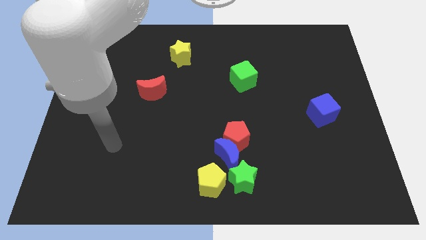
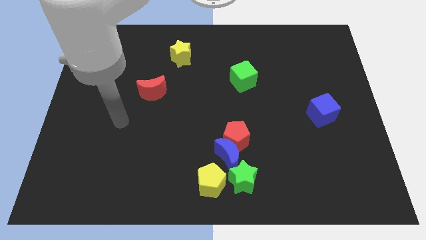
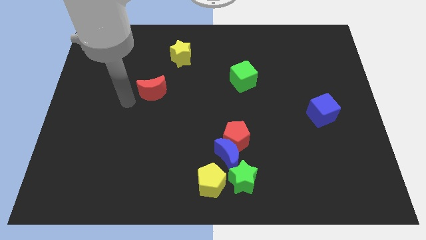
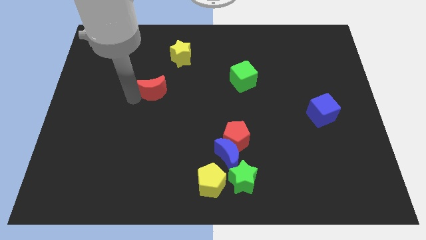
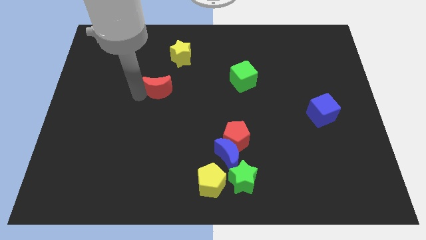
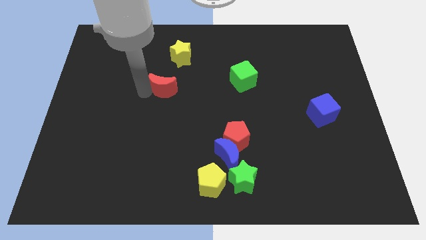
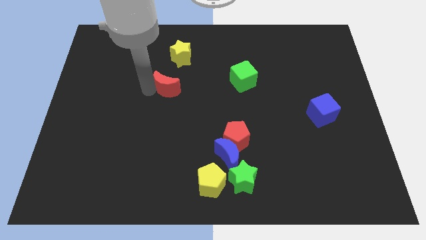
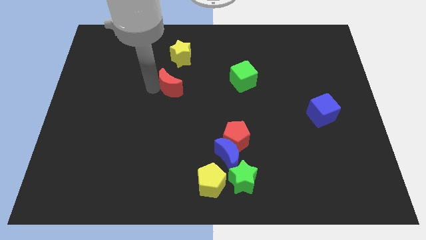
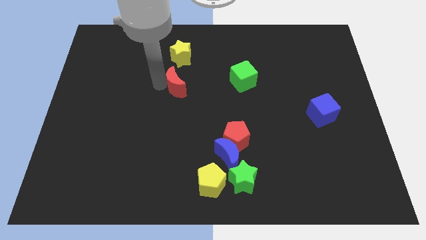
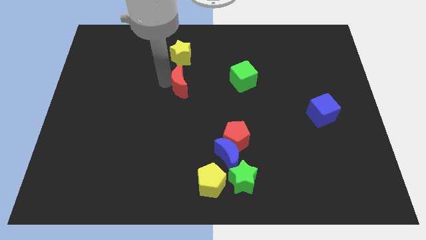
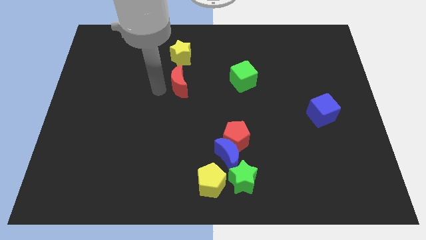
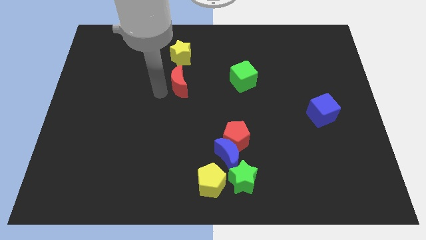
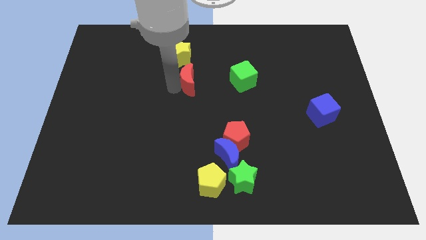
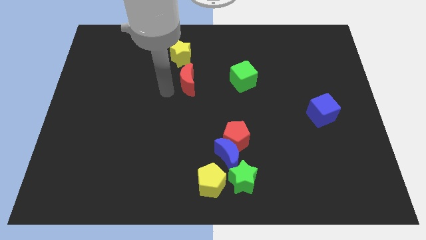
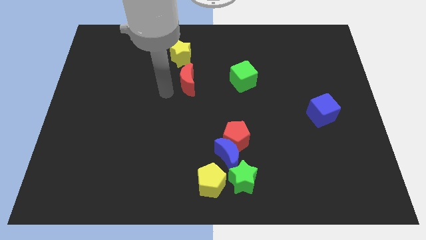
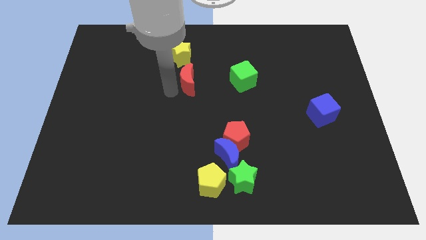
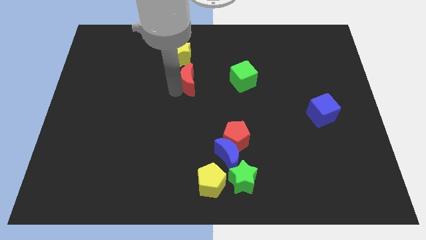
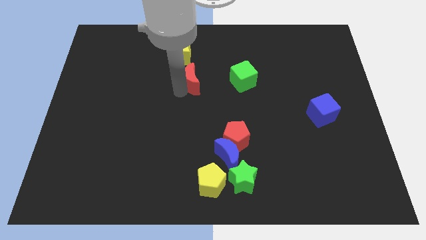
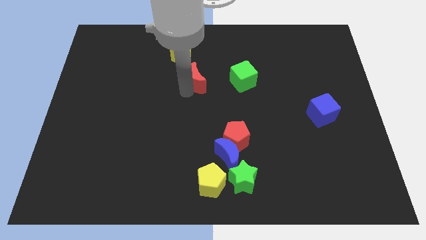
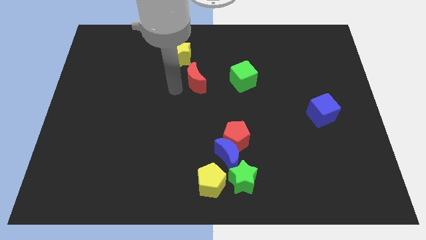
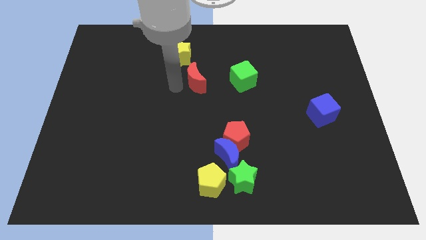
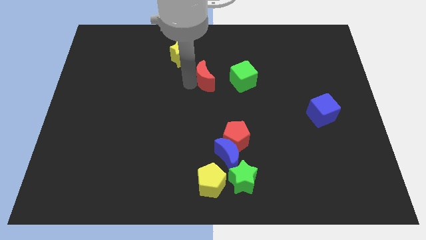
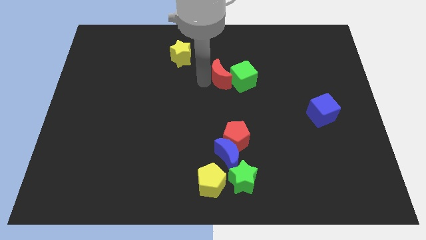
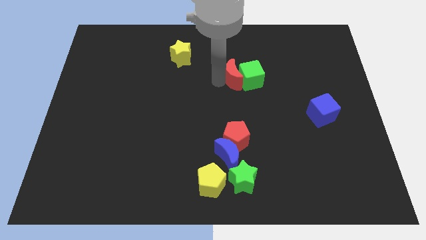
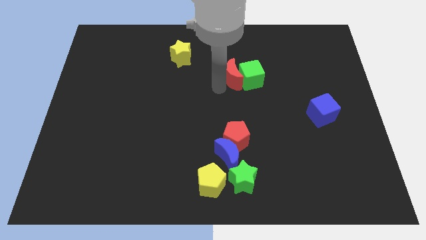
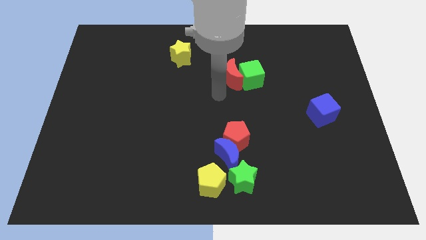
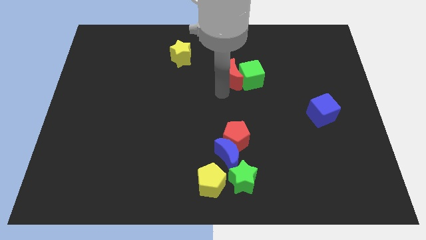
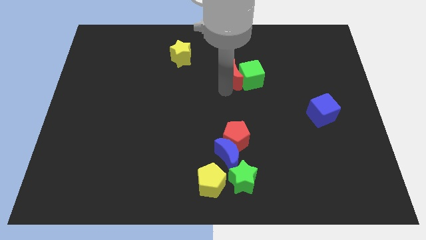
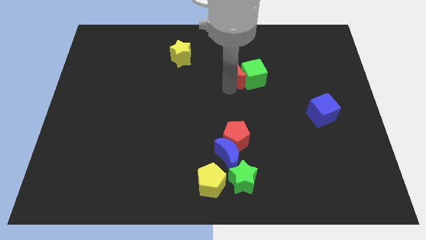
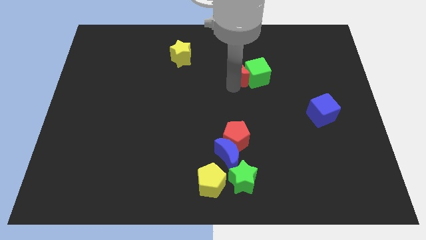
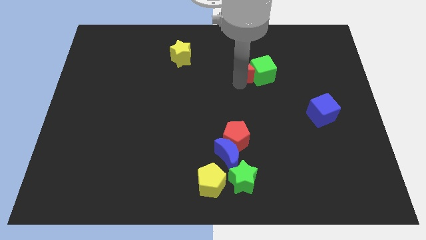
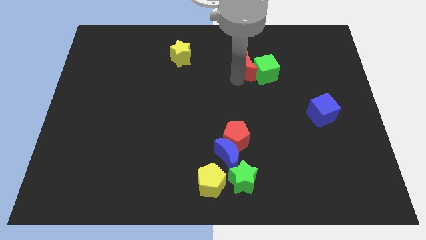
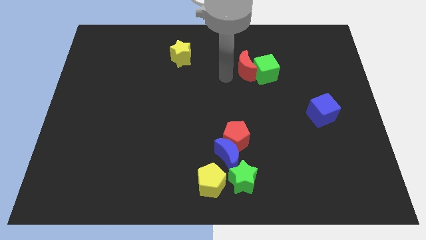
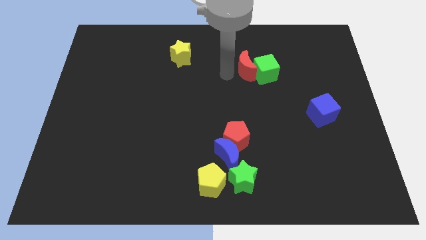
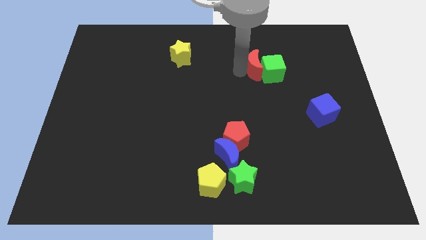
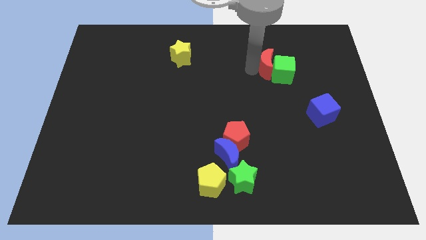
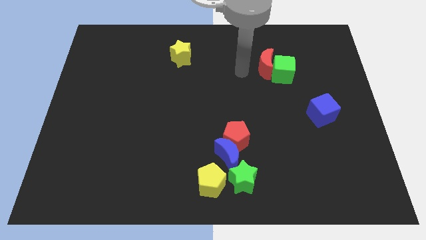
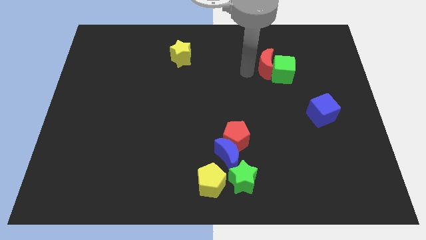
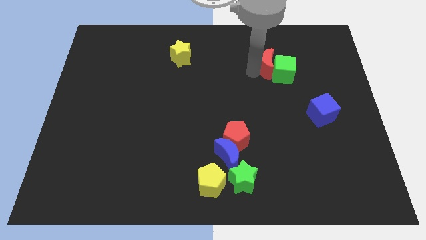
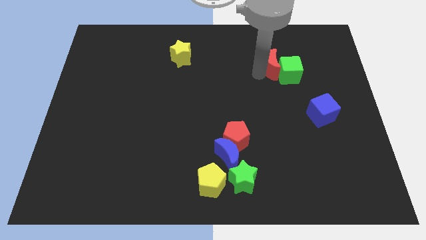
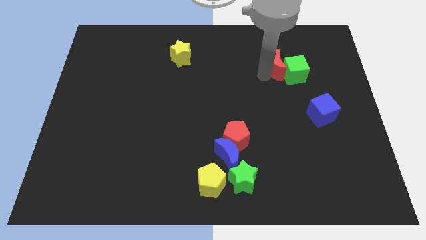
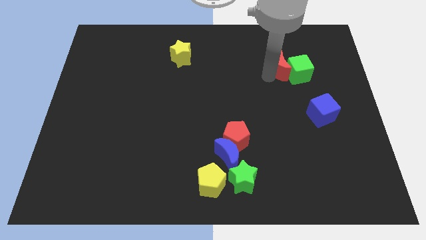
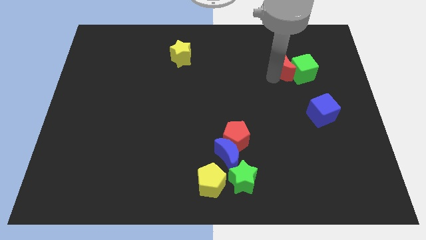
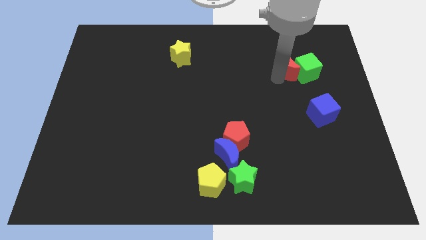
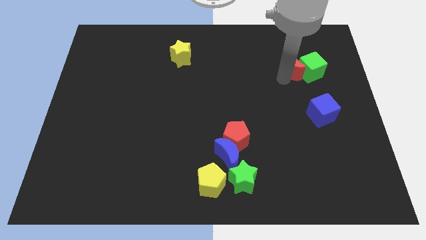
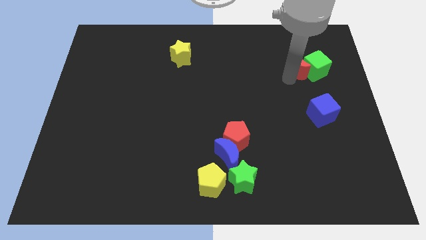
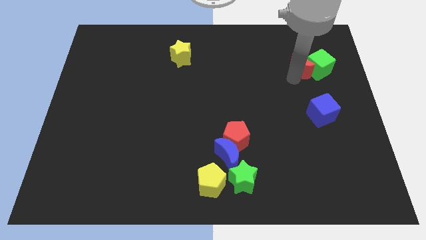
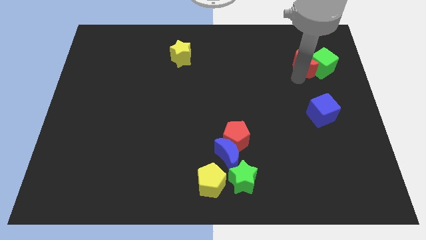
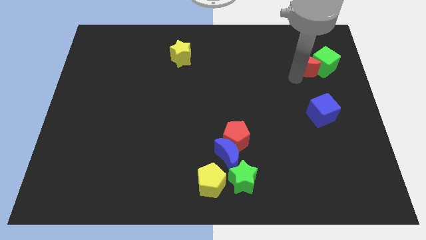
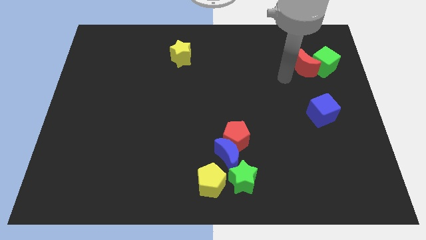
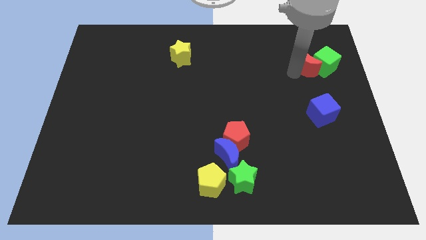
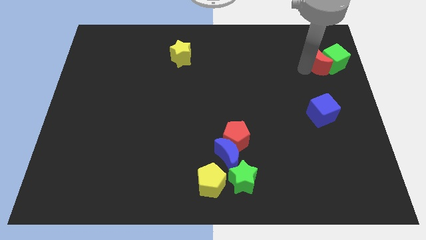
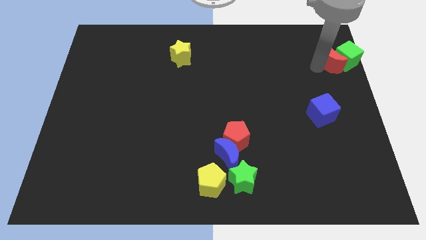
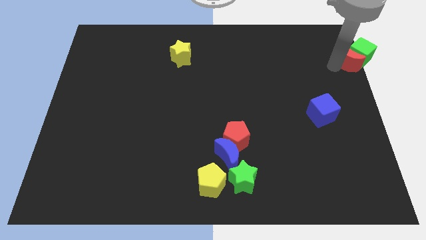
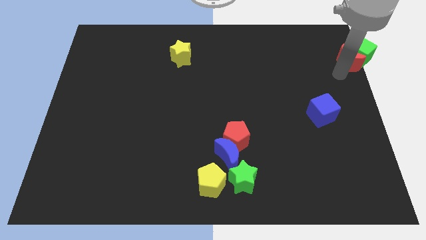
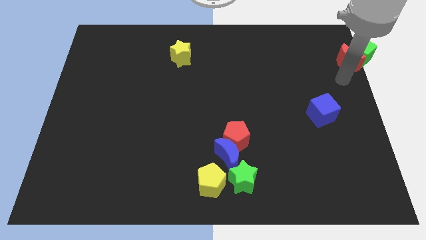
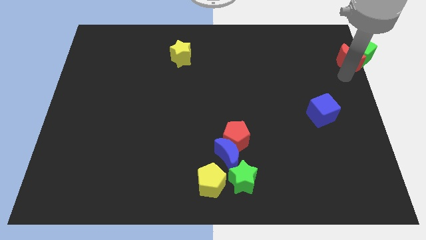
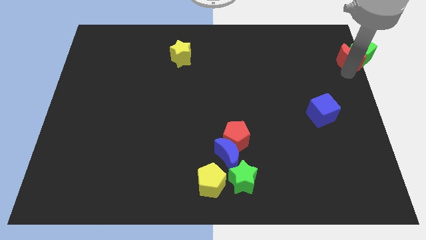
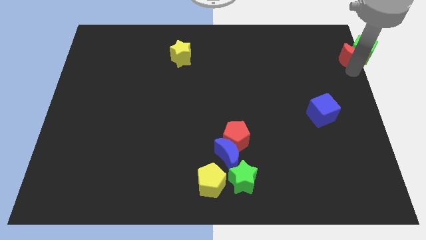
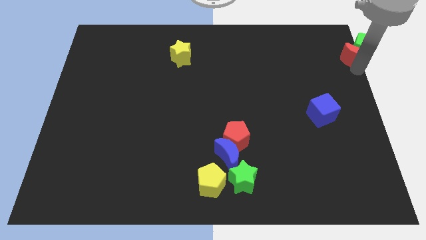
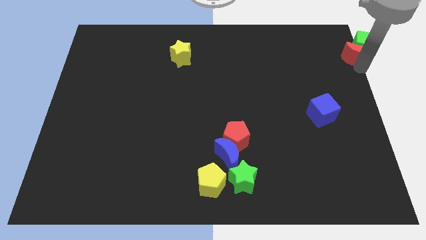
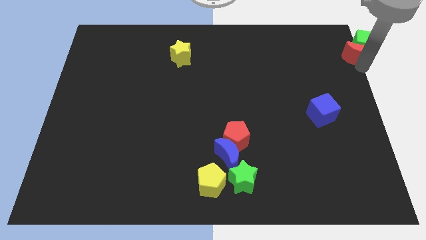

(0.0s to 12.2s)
slide the red moon to the upper right corner

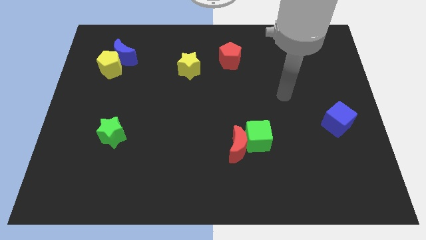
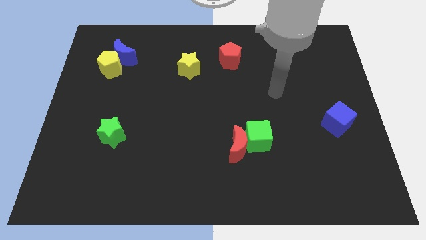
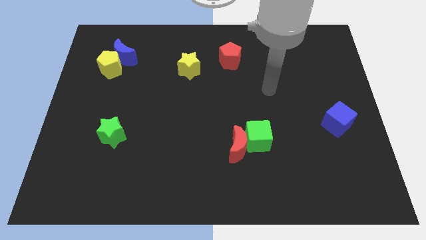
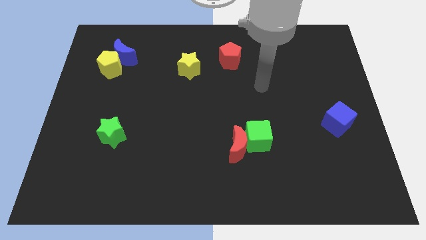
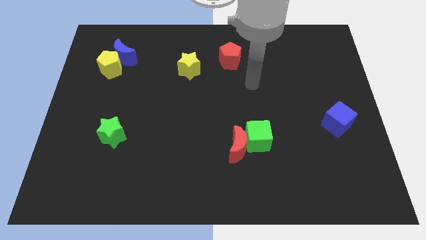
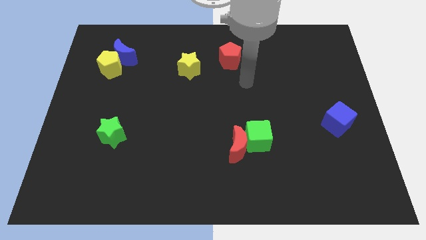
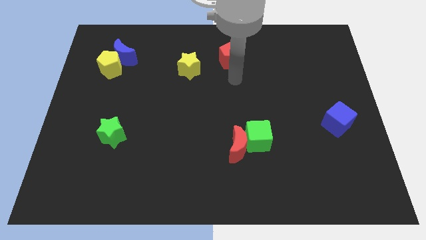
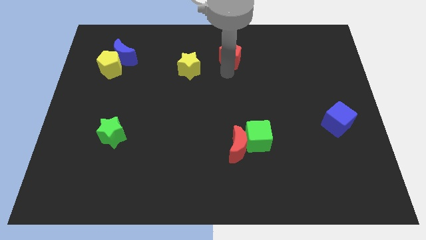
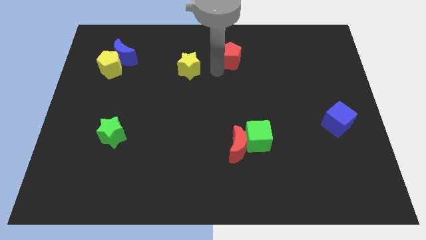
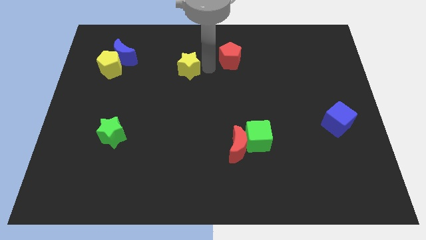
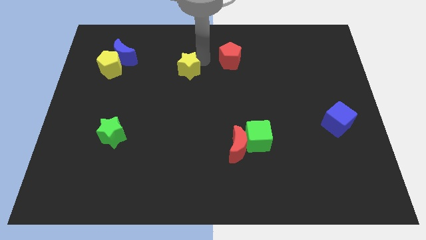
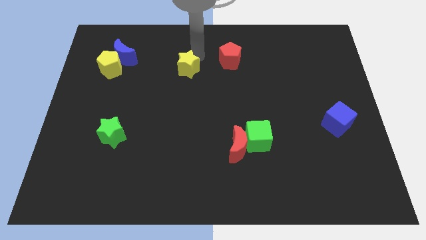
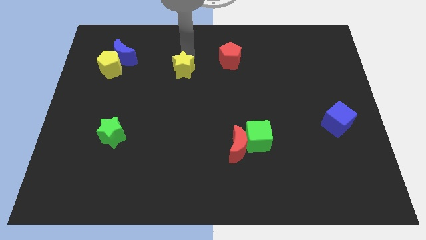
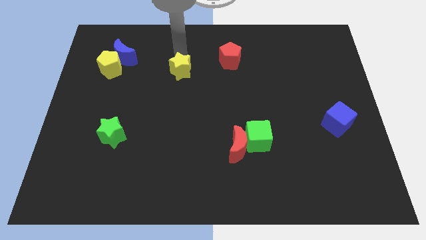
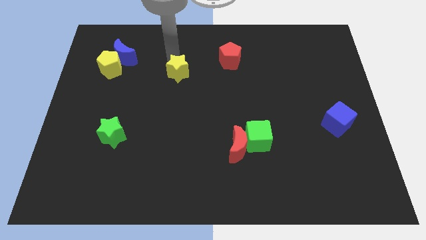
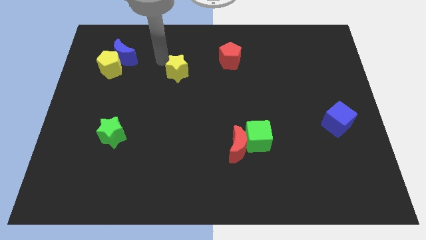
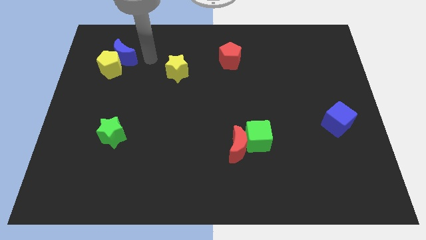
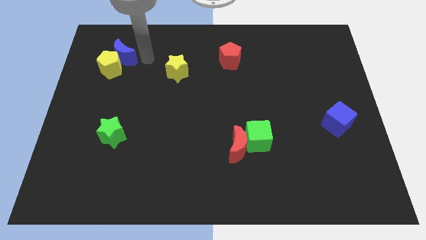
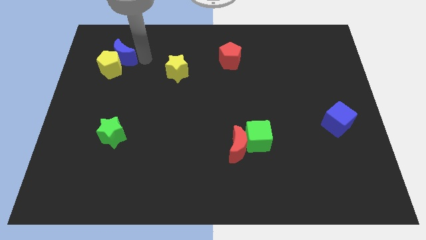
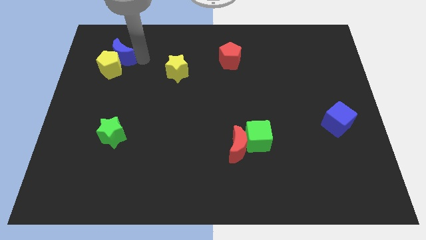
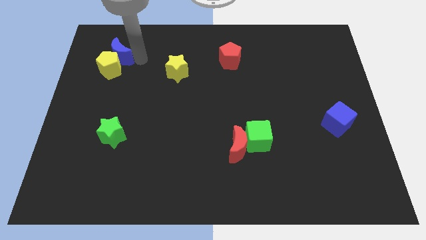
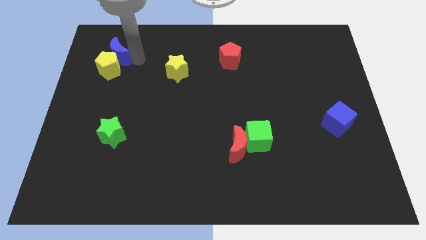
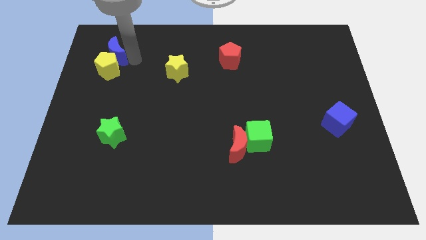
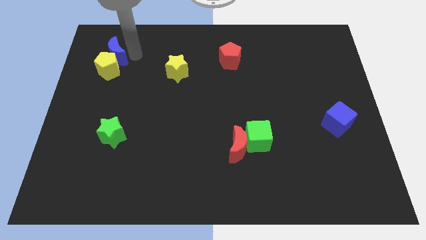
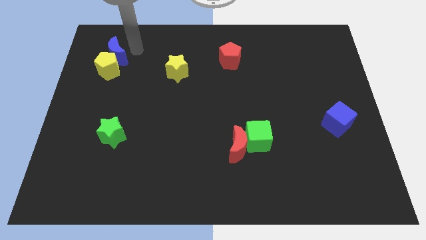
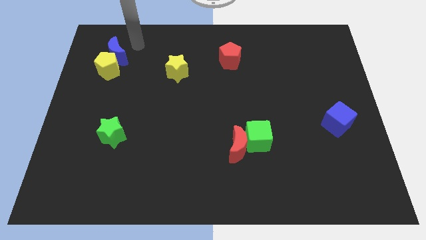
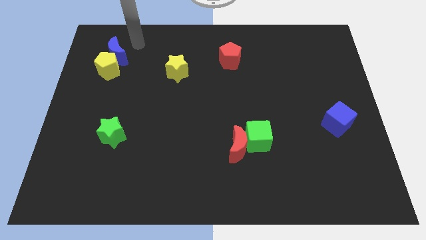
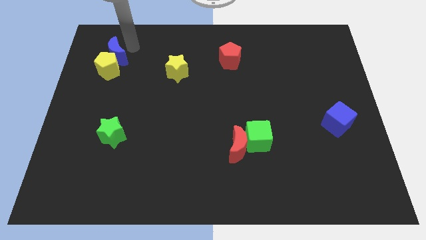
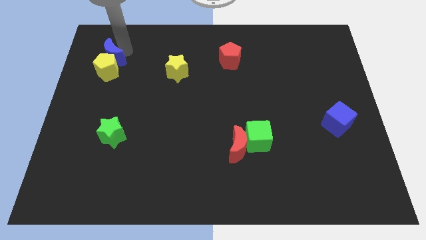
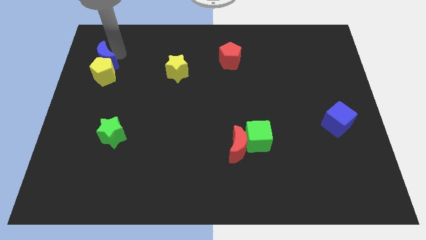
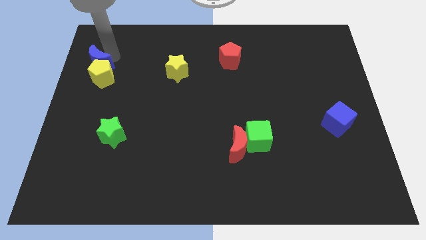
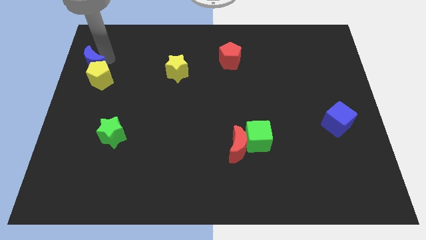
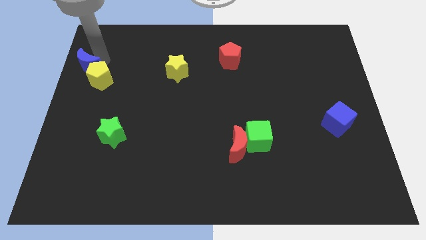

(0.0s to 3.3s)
slide the blue moon to the left side of the board
